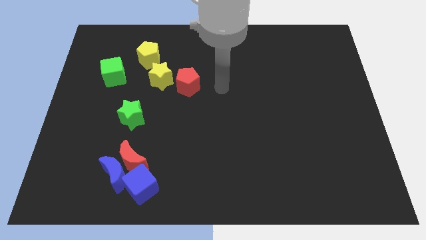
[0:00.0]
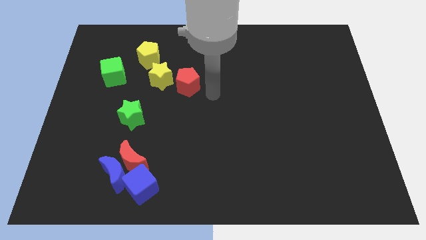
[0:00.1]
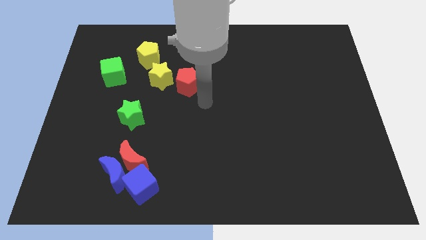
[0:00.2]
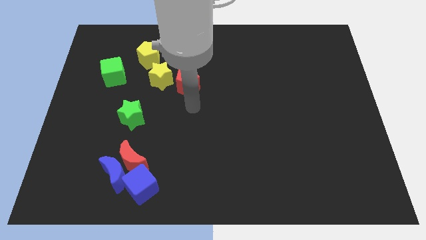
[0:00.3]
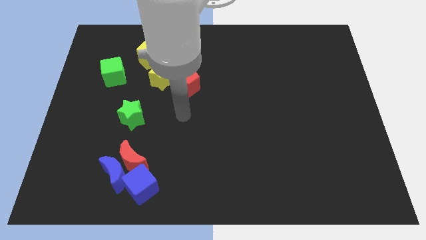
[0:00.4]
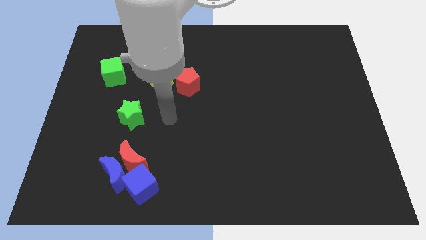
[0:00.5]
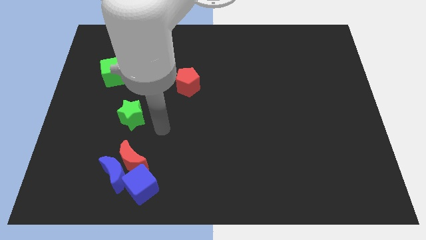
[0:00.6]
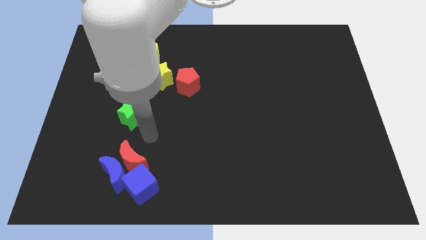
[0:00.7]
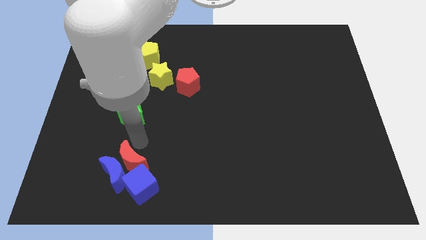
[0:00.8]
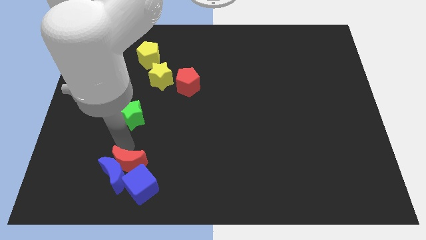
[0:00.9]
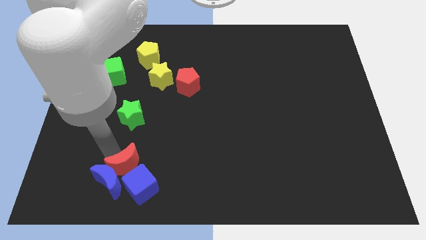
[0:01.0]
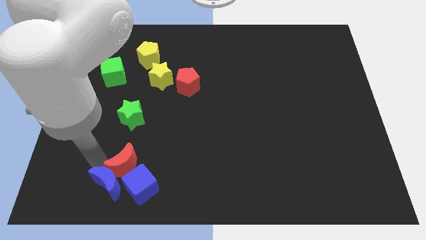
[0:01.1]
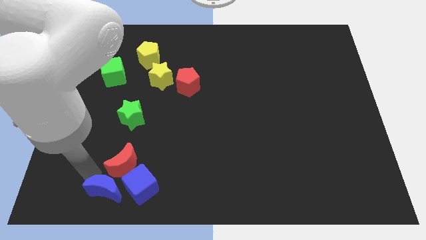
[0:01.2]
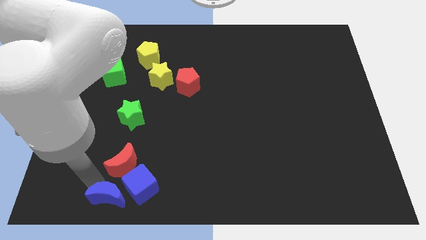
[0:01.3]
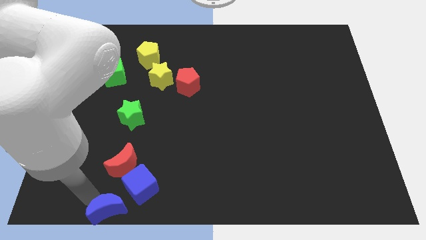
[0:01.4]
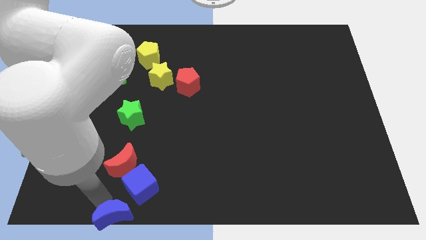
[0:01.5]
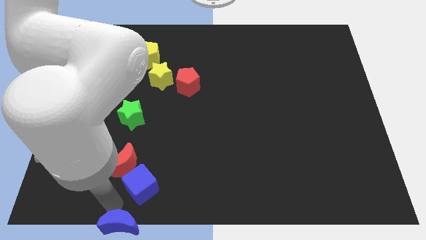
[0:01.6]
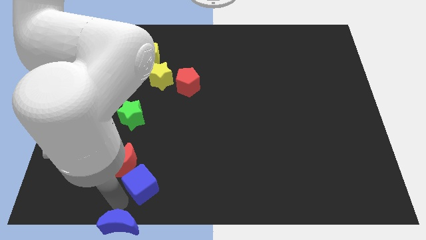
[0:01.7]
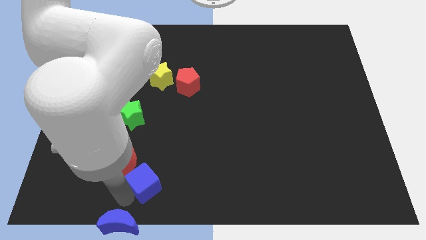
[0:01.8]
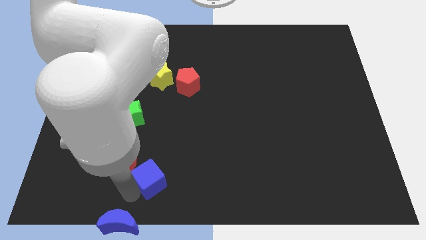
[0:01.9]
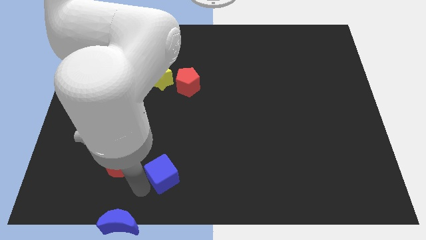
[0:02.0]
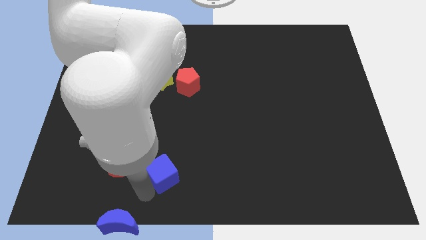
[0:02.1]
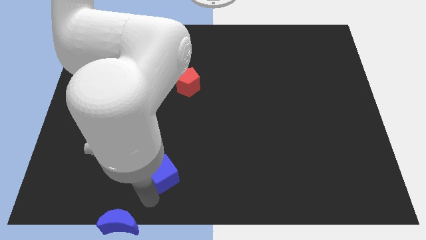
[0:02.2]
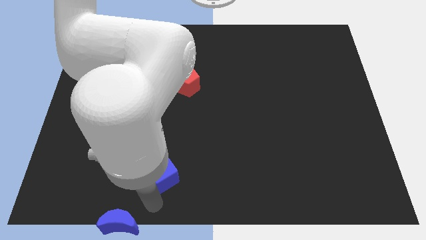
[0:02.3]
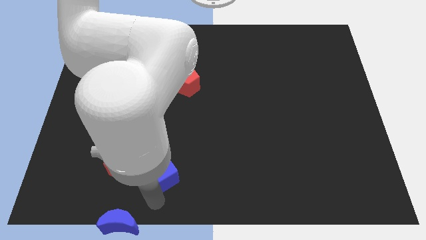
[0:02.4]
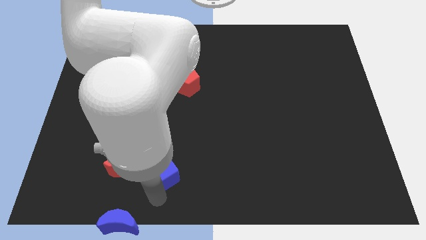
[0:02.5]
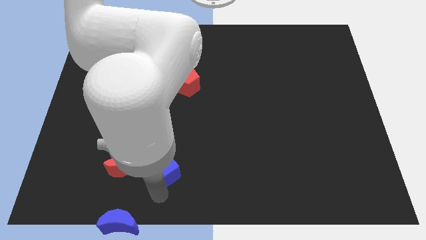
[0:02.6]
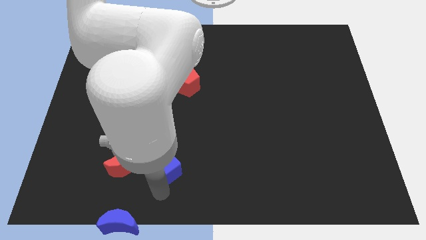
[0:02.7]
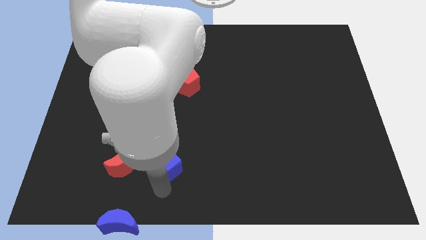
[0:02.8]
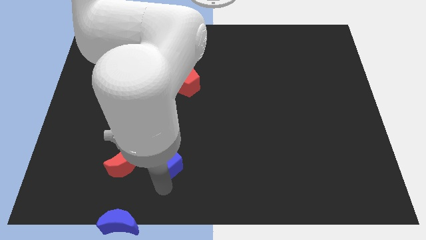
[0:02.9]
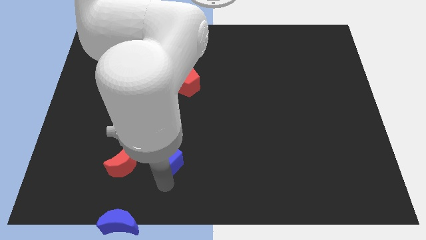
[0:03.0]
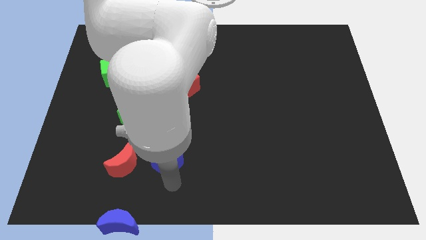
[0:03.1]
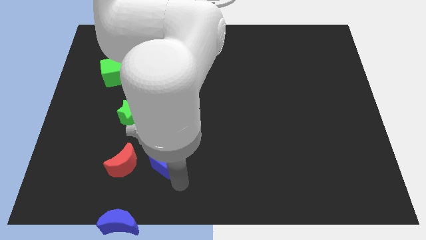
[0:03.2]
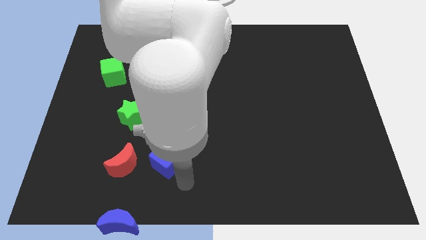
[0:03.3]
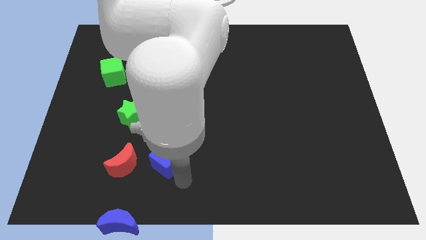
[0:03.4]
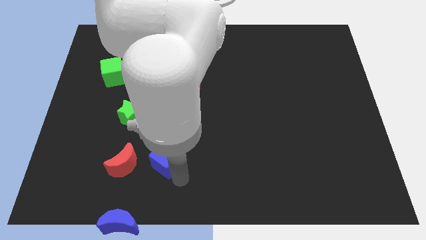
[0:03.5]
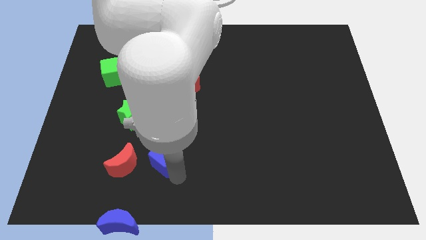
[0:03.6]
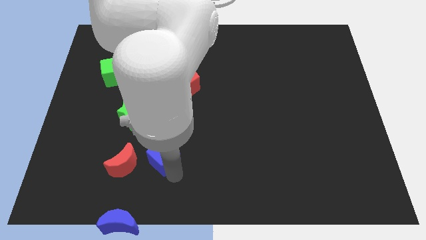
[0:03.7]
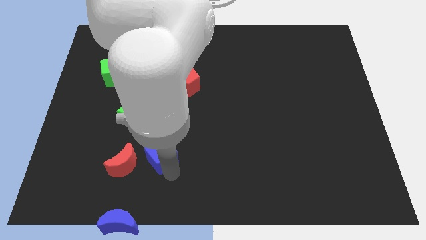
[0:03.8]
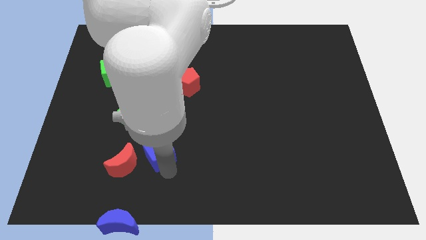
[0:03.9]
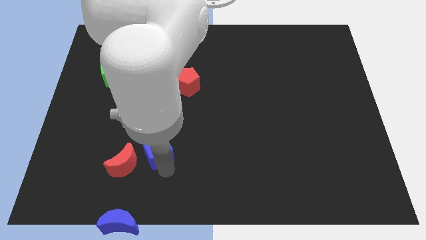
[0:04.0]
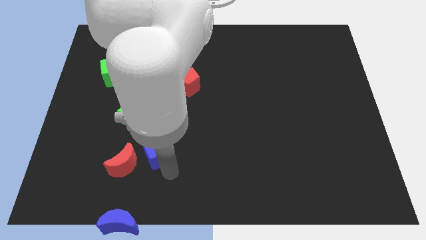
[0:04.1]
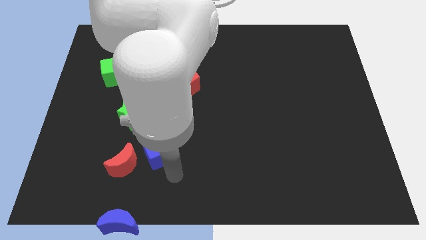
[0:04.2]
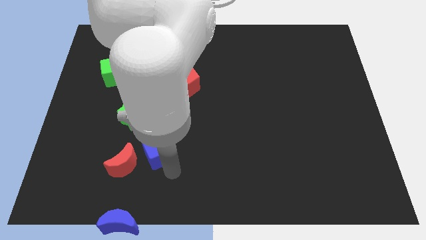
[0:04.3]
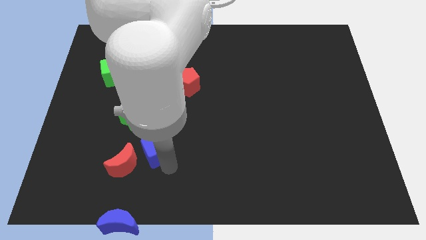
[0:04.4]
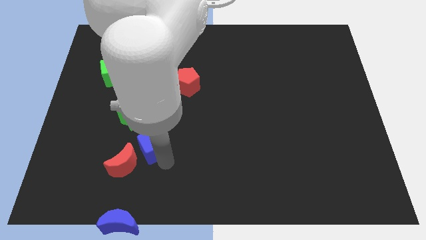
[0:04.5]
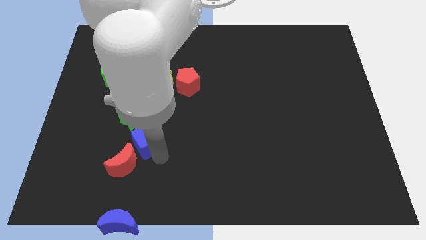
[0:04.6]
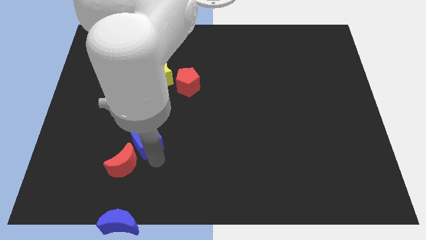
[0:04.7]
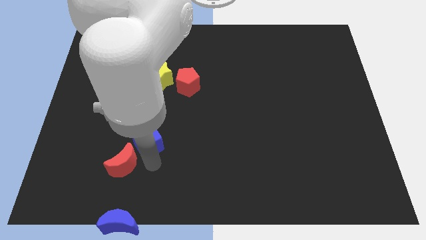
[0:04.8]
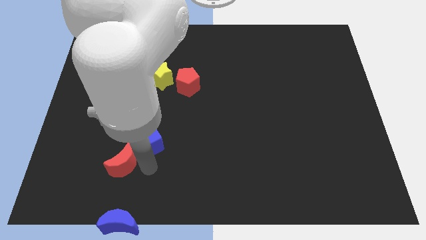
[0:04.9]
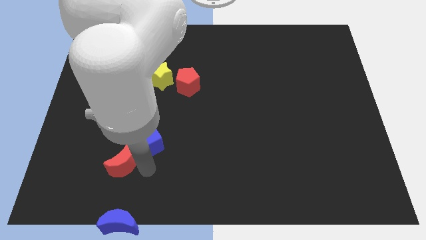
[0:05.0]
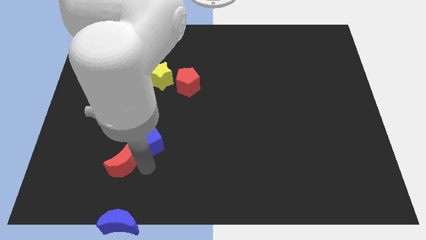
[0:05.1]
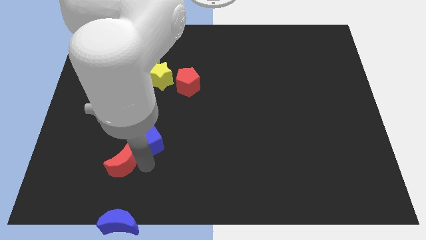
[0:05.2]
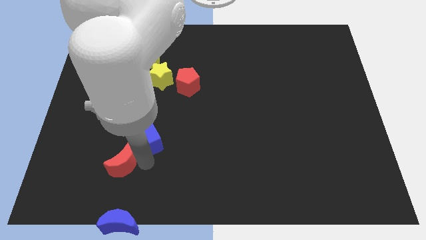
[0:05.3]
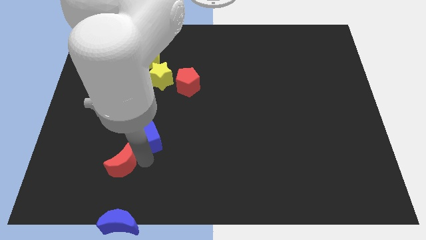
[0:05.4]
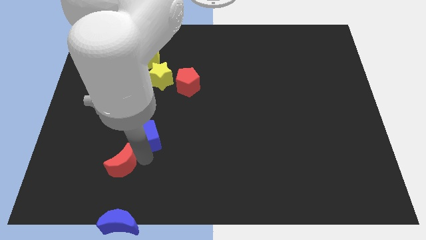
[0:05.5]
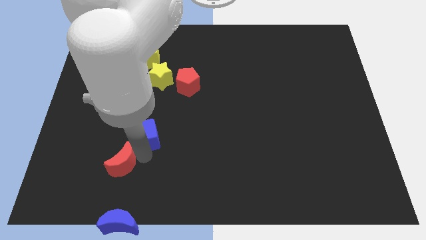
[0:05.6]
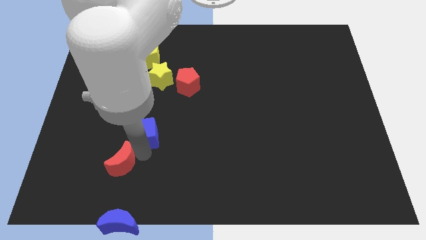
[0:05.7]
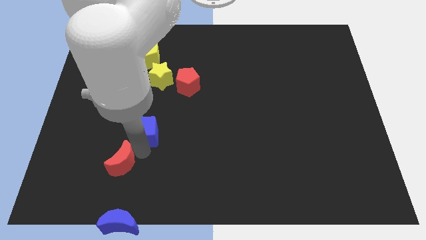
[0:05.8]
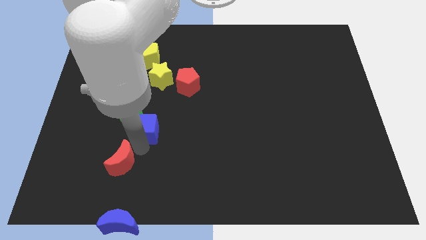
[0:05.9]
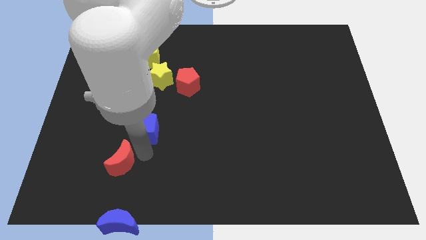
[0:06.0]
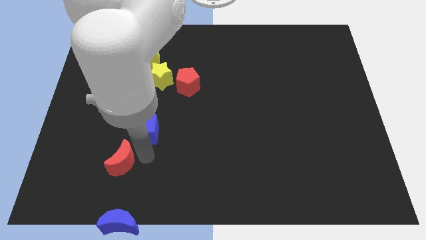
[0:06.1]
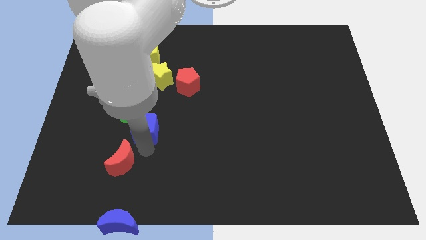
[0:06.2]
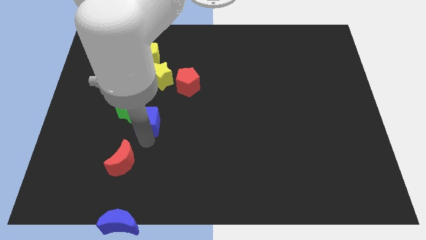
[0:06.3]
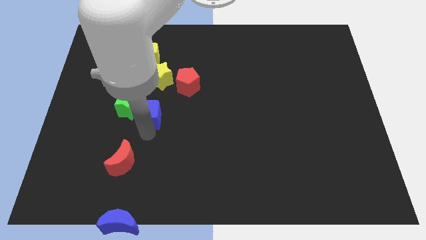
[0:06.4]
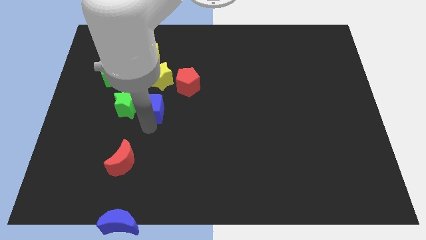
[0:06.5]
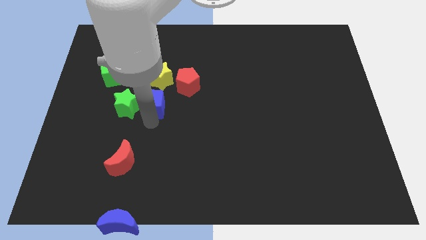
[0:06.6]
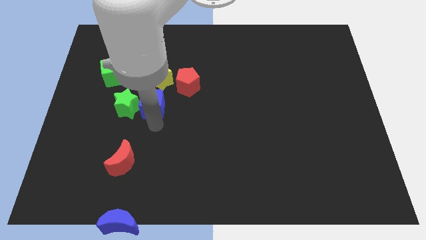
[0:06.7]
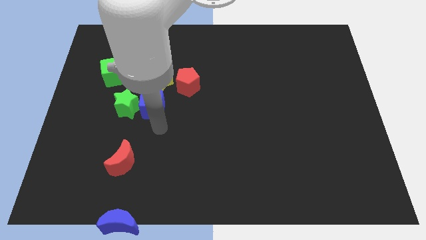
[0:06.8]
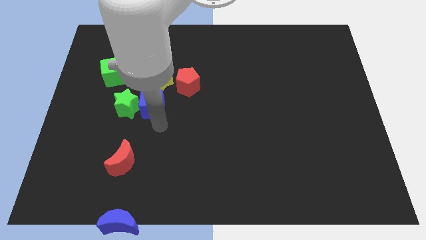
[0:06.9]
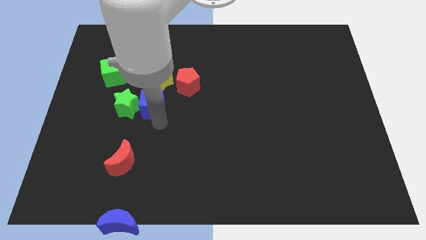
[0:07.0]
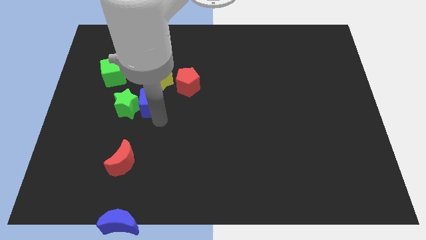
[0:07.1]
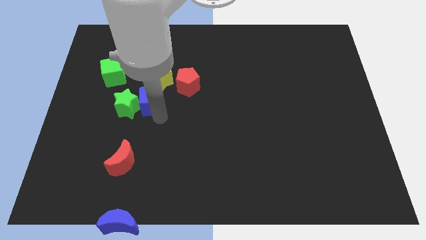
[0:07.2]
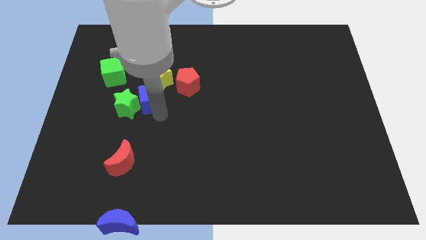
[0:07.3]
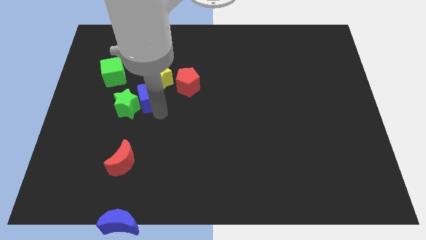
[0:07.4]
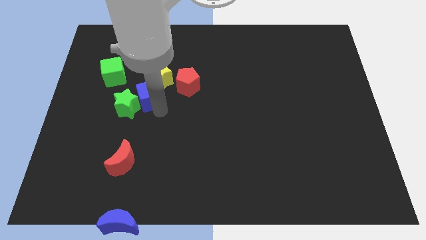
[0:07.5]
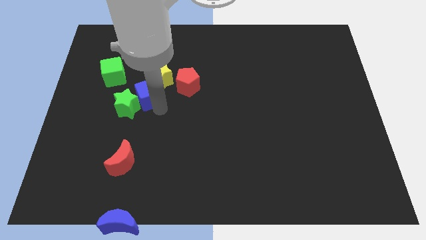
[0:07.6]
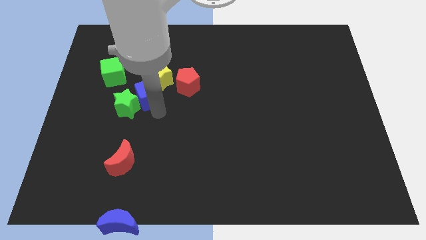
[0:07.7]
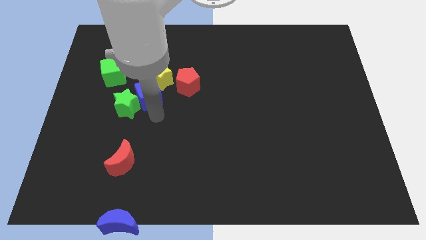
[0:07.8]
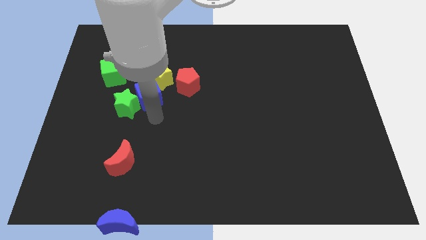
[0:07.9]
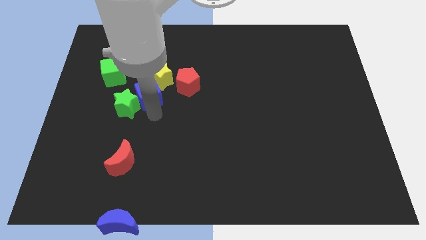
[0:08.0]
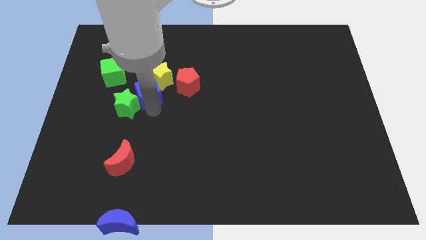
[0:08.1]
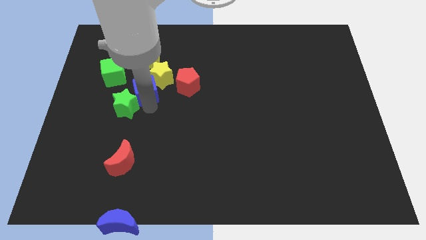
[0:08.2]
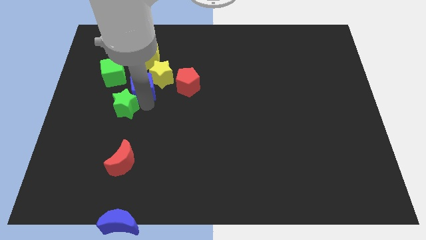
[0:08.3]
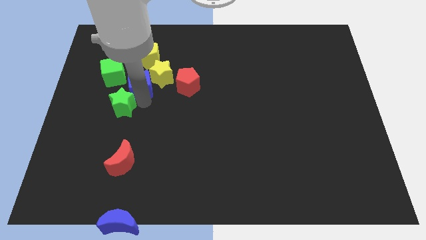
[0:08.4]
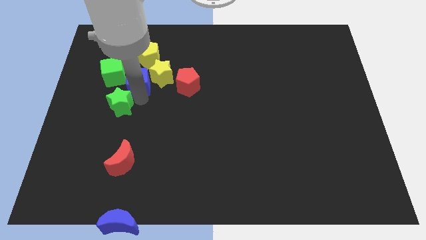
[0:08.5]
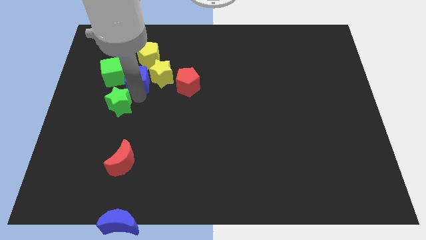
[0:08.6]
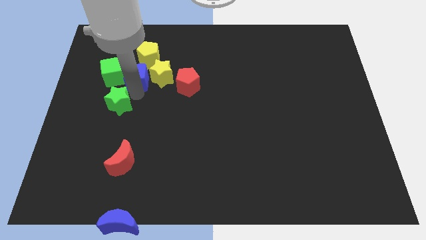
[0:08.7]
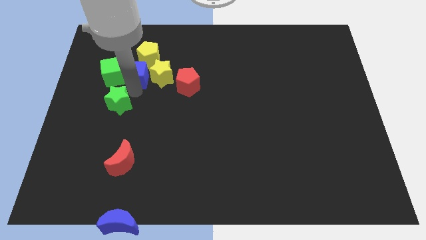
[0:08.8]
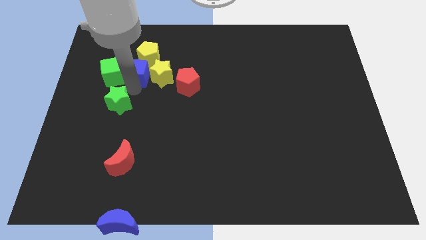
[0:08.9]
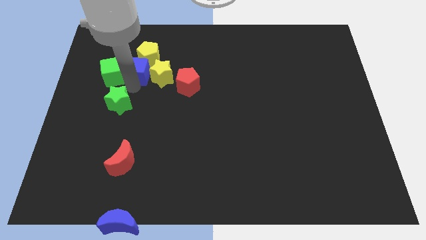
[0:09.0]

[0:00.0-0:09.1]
move the blue cube close to the yellow pentagon
